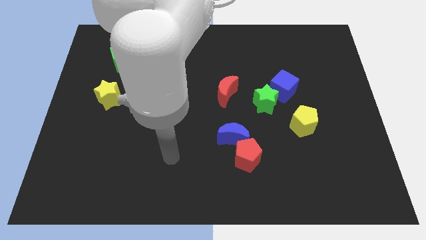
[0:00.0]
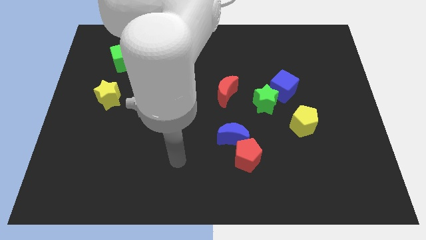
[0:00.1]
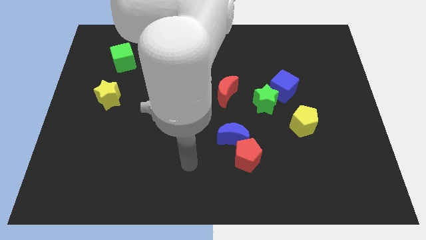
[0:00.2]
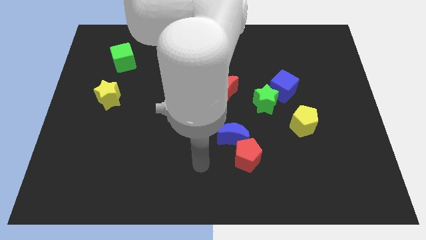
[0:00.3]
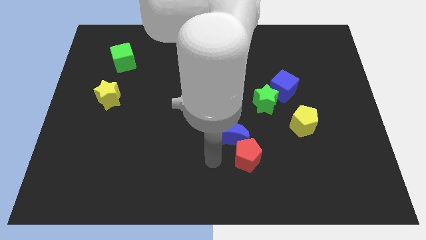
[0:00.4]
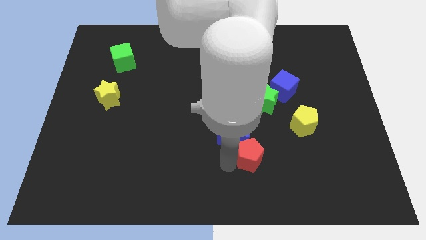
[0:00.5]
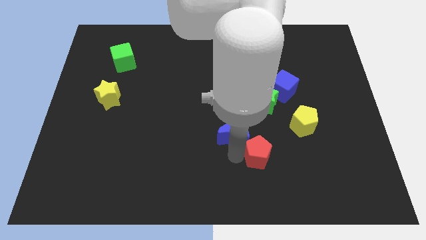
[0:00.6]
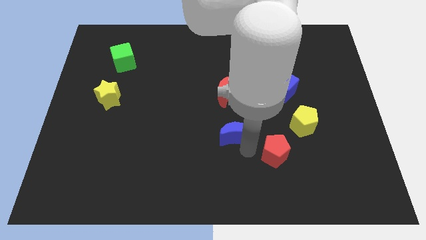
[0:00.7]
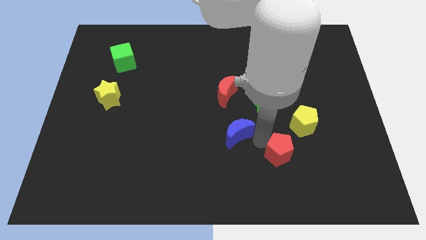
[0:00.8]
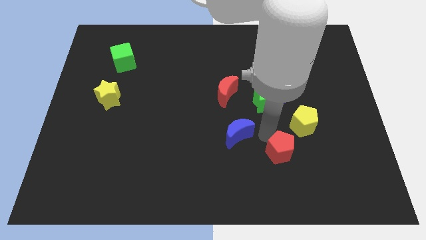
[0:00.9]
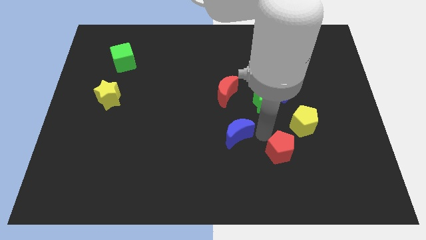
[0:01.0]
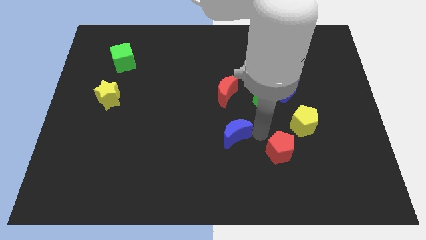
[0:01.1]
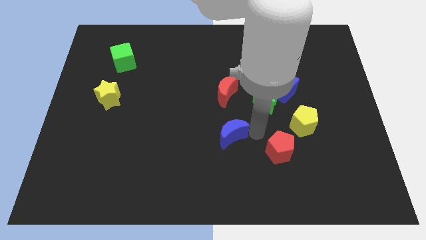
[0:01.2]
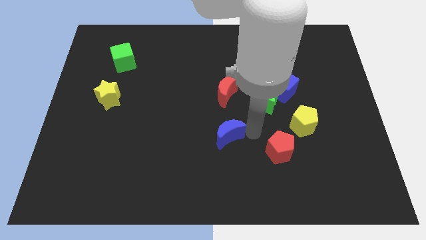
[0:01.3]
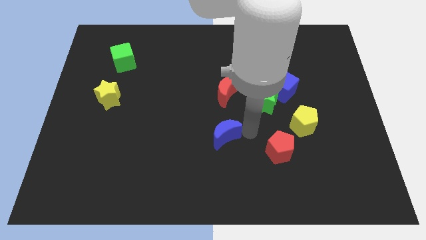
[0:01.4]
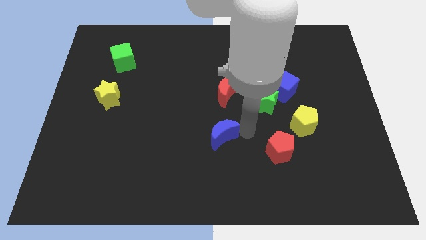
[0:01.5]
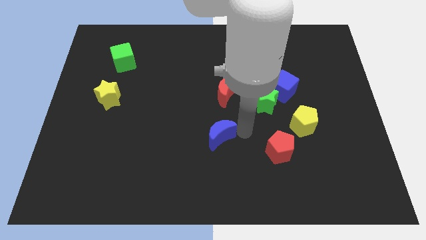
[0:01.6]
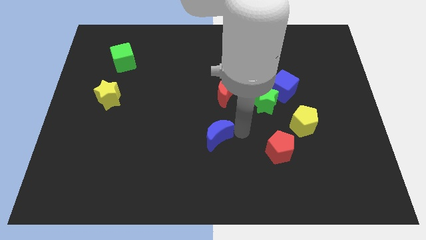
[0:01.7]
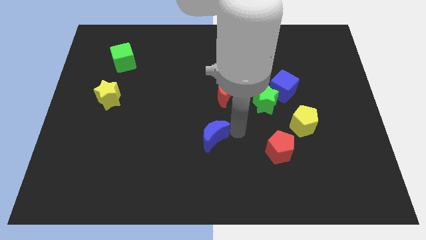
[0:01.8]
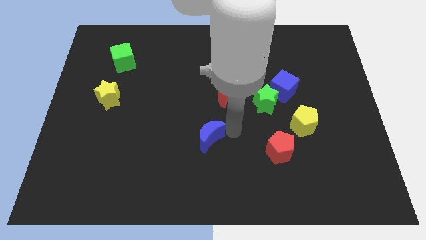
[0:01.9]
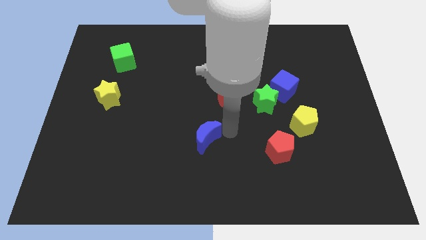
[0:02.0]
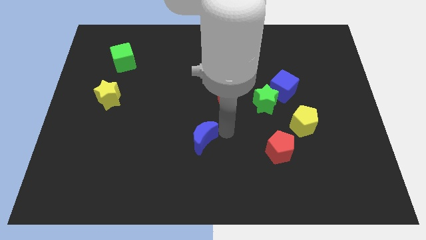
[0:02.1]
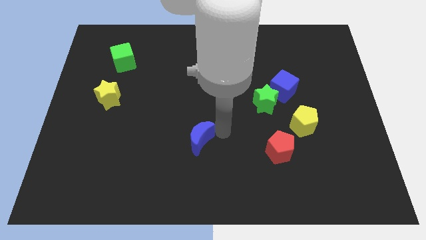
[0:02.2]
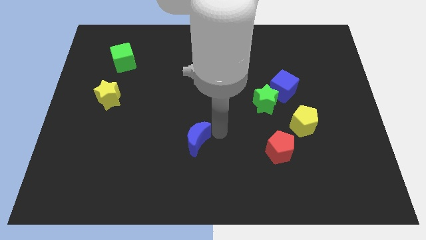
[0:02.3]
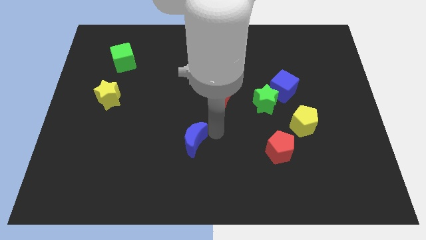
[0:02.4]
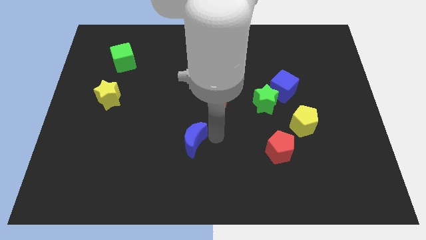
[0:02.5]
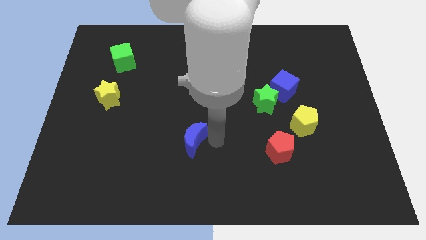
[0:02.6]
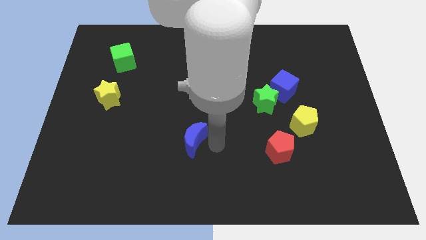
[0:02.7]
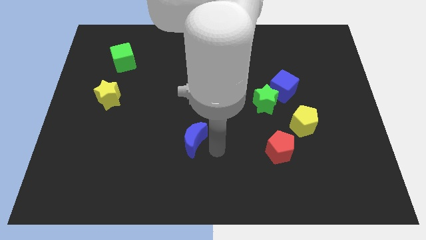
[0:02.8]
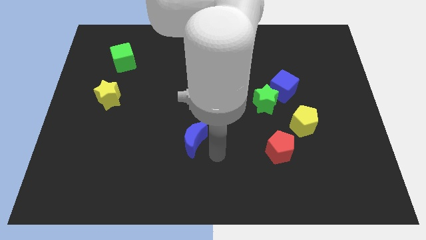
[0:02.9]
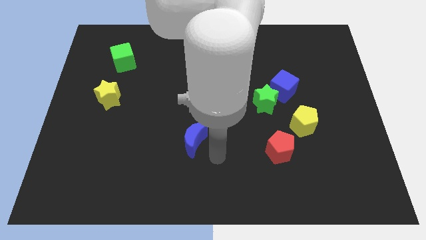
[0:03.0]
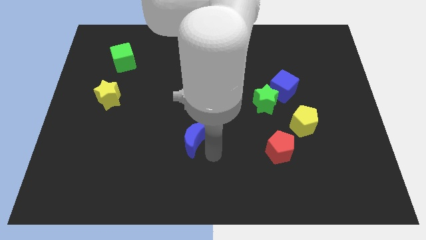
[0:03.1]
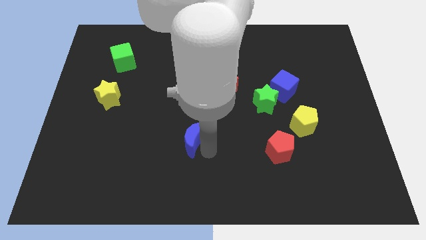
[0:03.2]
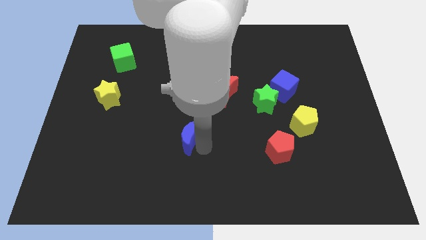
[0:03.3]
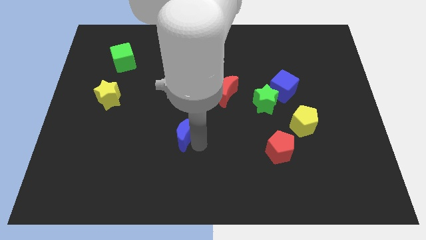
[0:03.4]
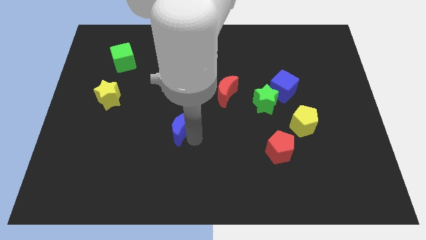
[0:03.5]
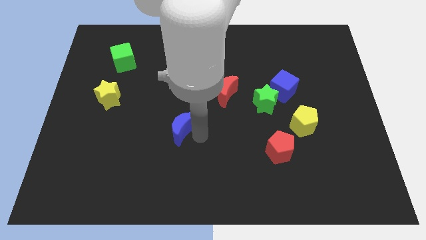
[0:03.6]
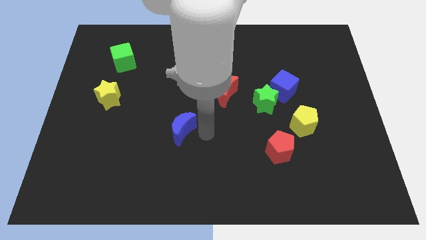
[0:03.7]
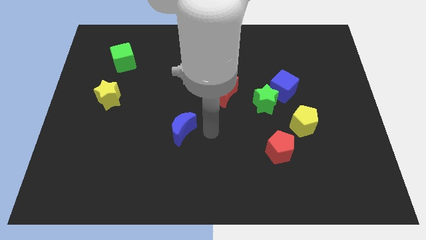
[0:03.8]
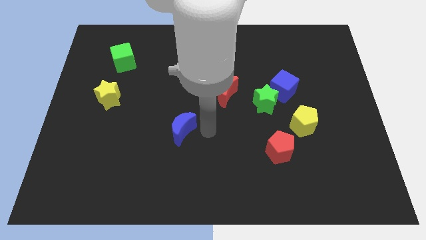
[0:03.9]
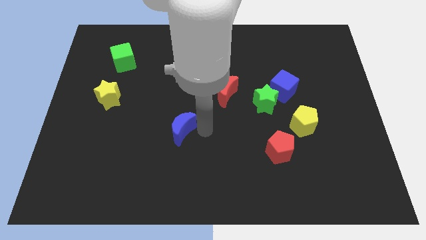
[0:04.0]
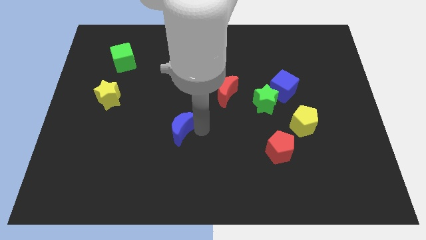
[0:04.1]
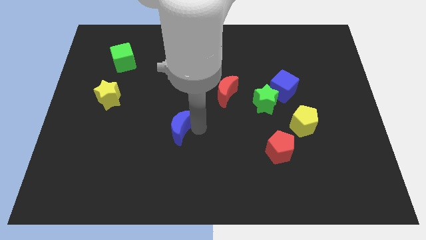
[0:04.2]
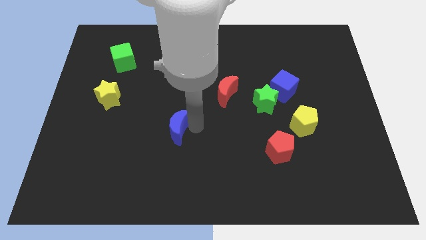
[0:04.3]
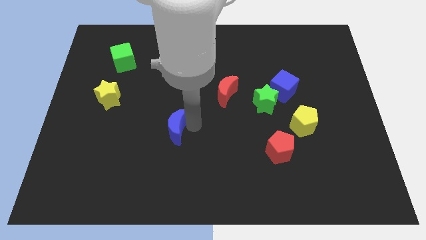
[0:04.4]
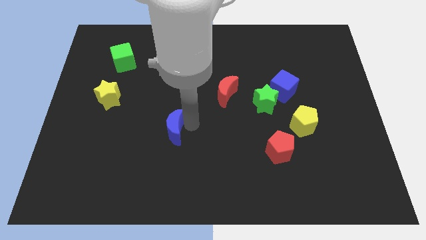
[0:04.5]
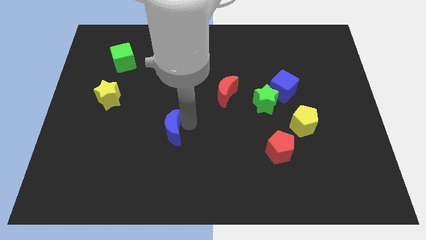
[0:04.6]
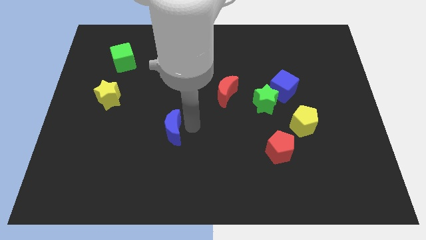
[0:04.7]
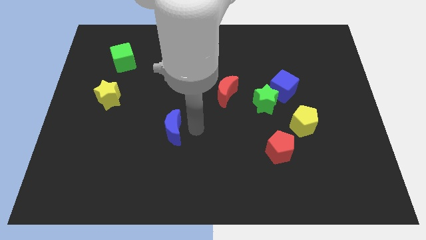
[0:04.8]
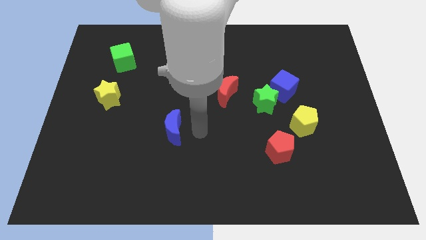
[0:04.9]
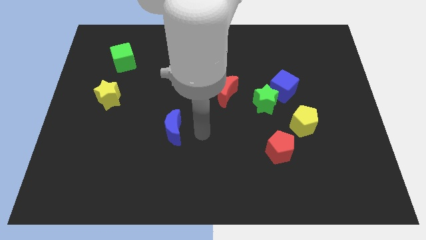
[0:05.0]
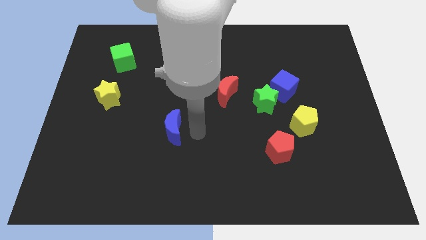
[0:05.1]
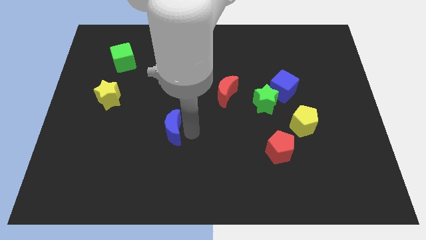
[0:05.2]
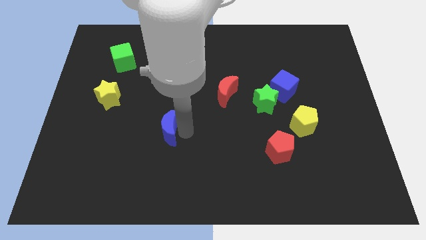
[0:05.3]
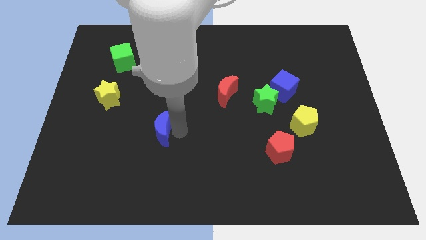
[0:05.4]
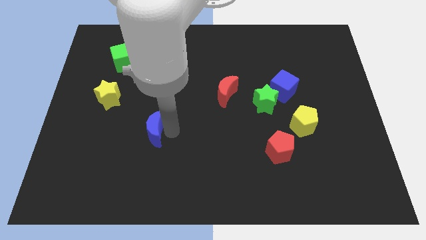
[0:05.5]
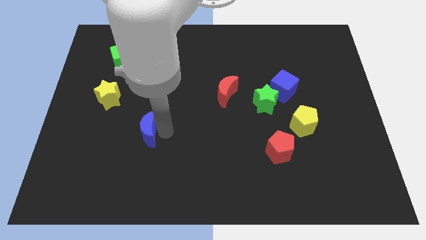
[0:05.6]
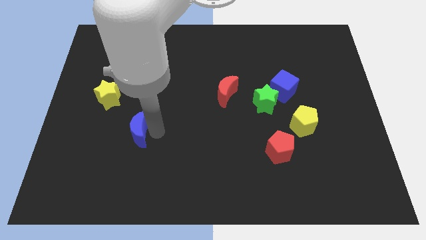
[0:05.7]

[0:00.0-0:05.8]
push the blue moon to the left

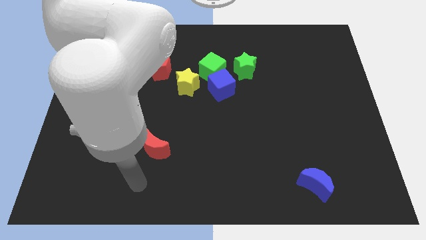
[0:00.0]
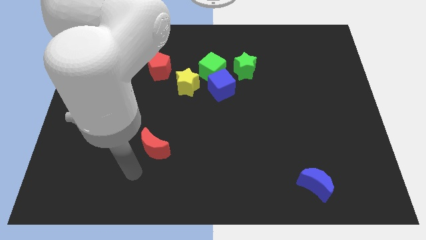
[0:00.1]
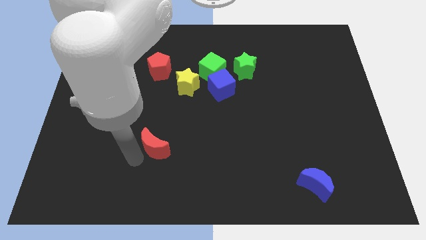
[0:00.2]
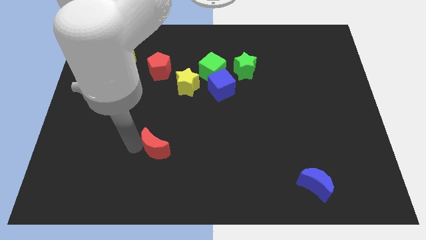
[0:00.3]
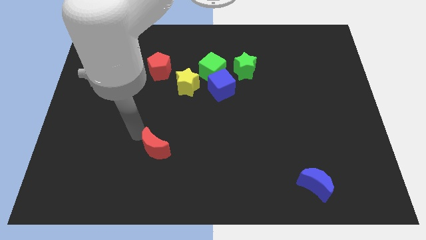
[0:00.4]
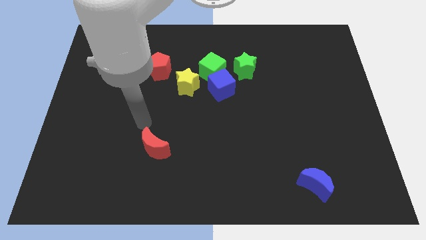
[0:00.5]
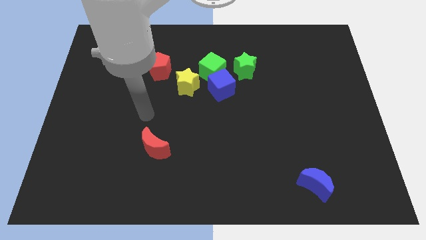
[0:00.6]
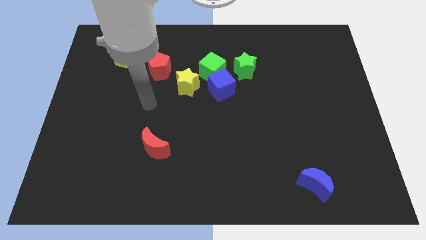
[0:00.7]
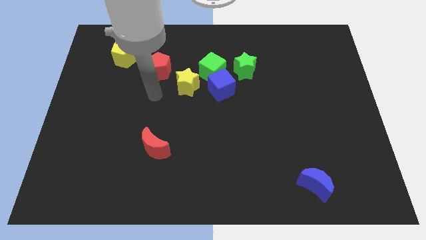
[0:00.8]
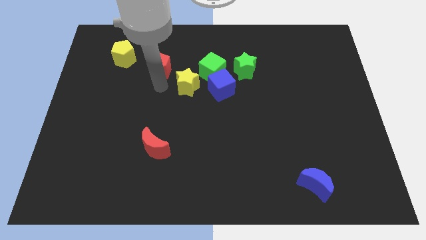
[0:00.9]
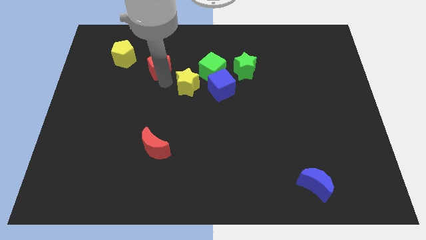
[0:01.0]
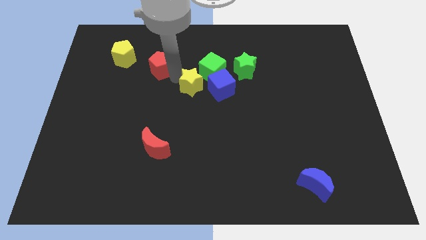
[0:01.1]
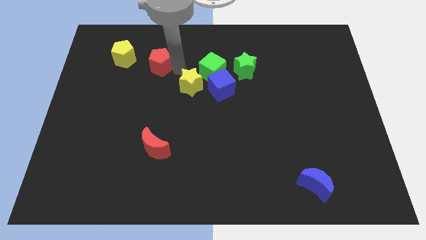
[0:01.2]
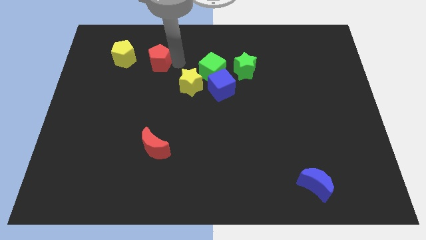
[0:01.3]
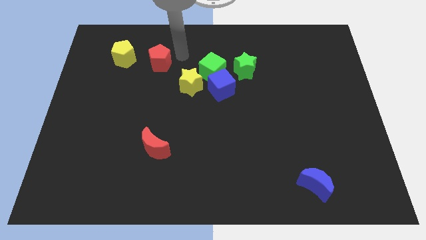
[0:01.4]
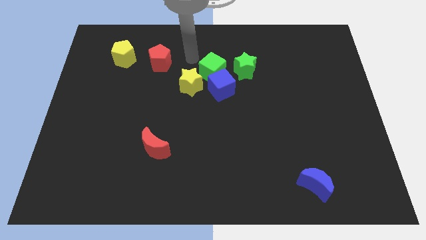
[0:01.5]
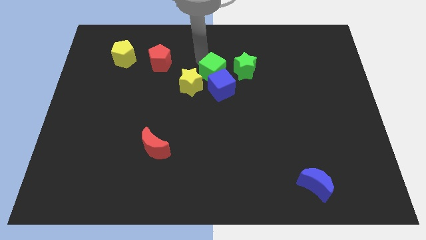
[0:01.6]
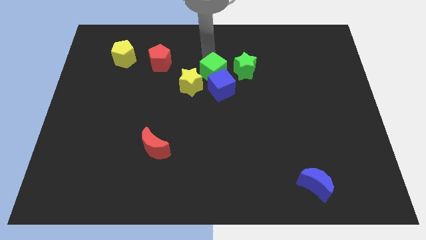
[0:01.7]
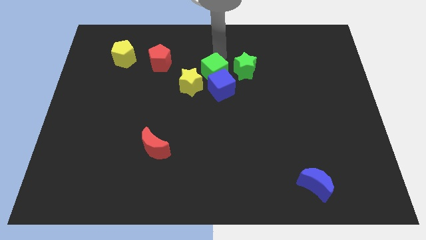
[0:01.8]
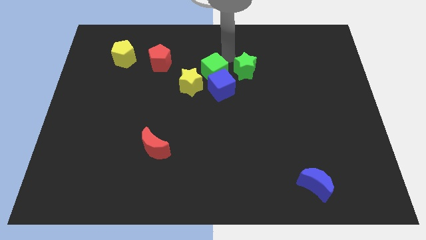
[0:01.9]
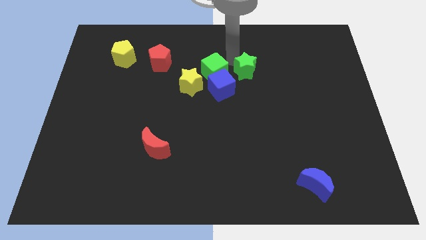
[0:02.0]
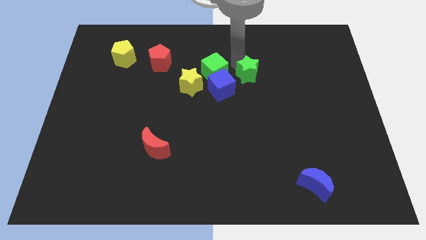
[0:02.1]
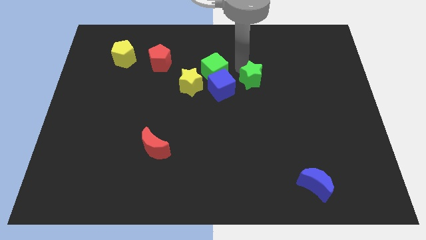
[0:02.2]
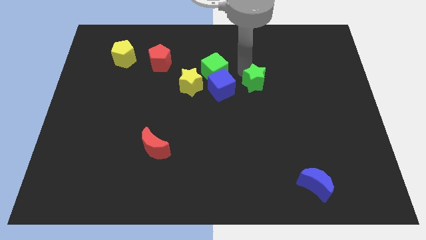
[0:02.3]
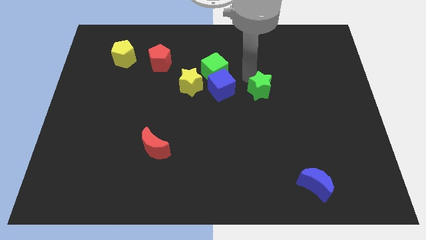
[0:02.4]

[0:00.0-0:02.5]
slide the green star a bit downwards and then right
